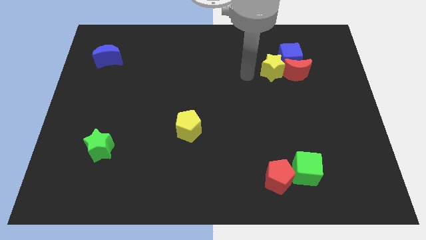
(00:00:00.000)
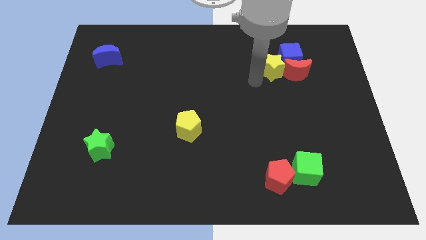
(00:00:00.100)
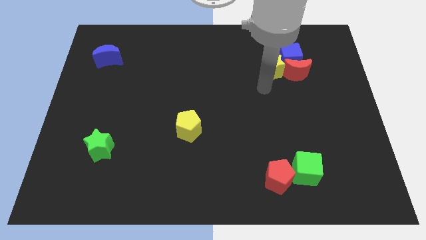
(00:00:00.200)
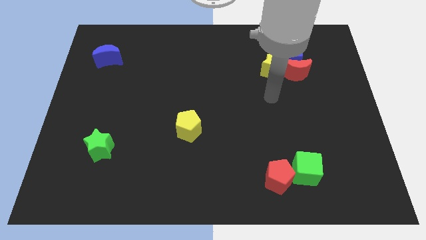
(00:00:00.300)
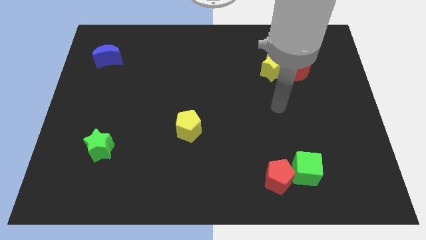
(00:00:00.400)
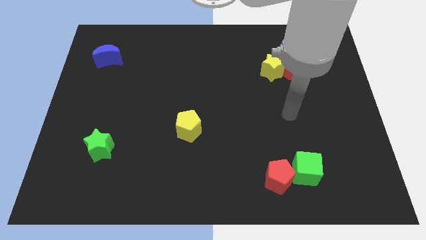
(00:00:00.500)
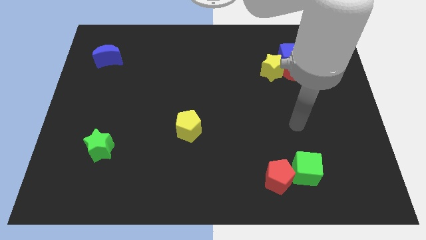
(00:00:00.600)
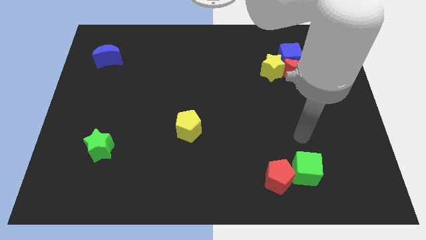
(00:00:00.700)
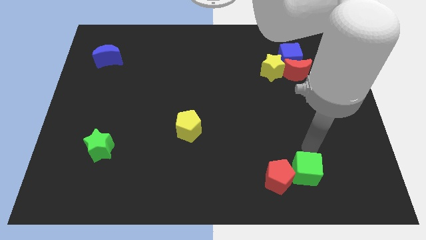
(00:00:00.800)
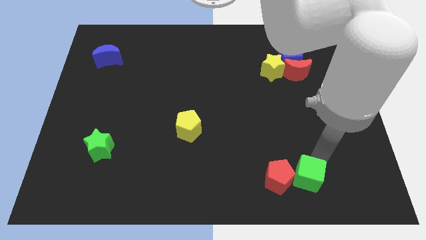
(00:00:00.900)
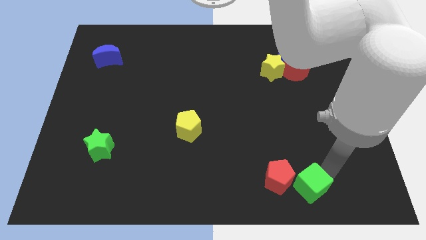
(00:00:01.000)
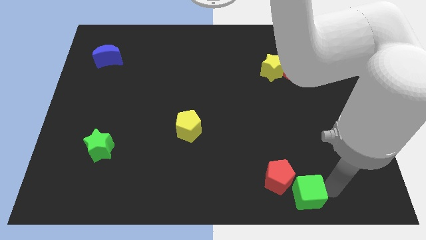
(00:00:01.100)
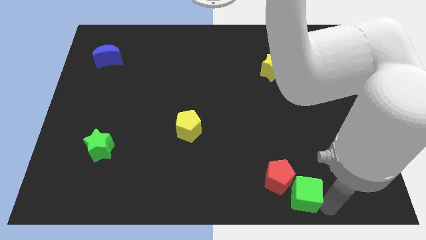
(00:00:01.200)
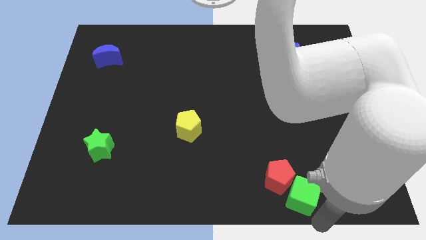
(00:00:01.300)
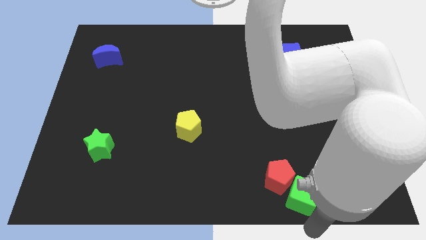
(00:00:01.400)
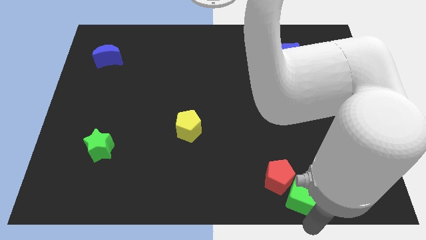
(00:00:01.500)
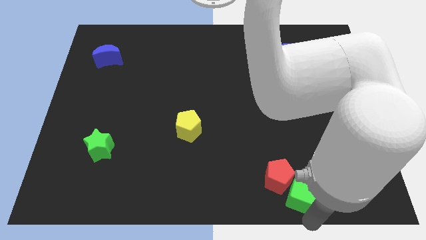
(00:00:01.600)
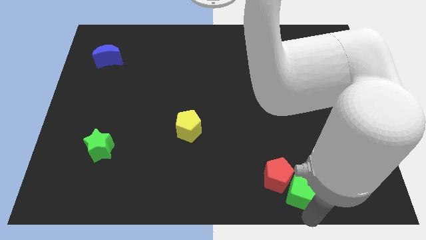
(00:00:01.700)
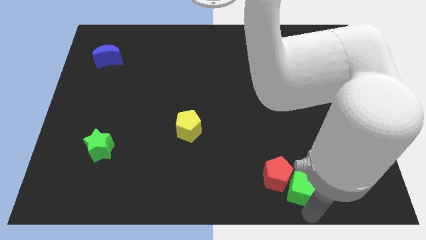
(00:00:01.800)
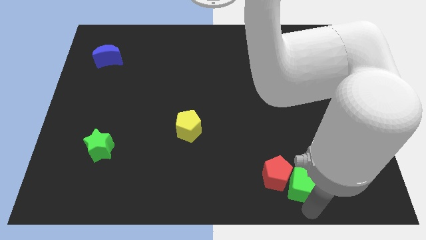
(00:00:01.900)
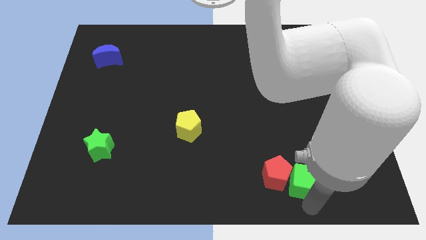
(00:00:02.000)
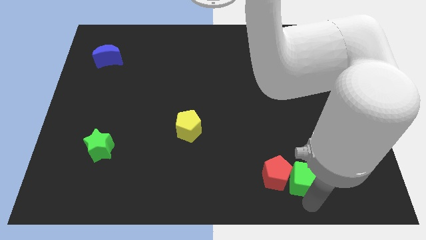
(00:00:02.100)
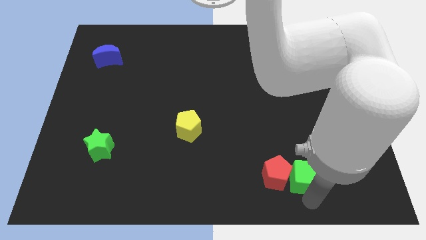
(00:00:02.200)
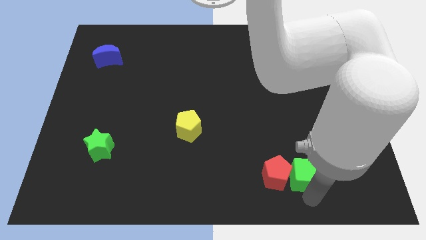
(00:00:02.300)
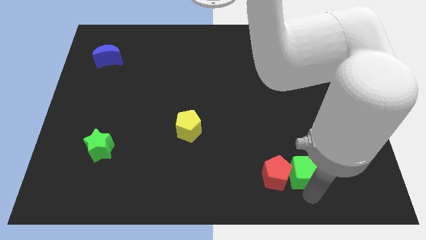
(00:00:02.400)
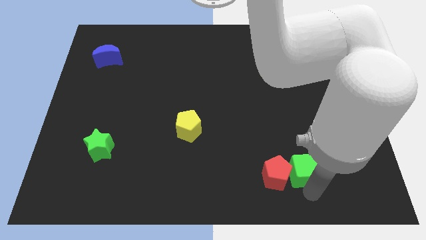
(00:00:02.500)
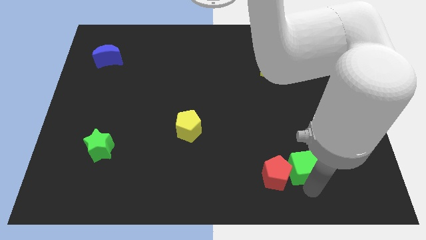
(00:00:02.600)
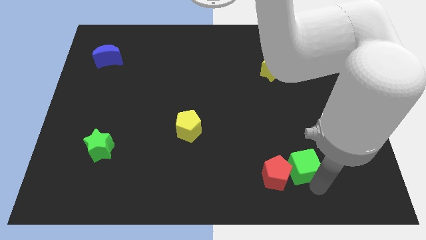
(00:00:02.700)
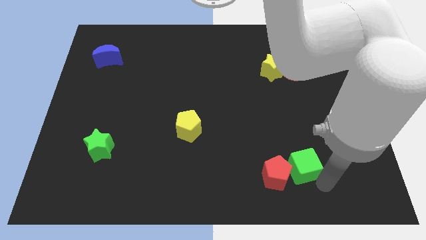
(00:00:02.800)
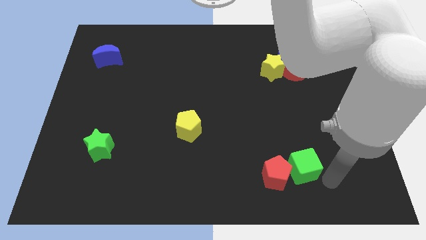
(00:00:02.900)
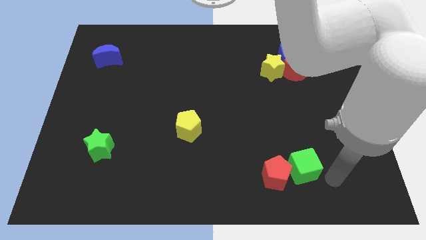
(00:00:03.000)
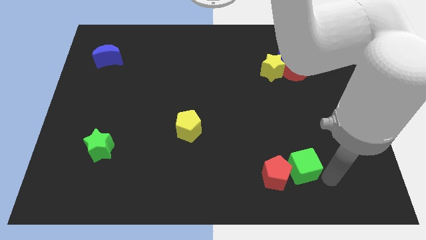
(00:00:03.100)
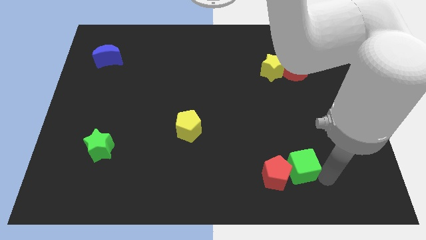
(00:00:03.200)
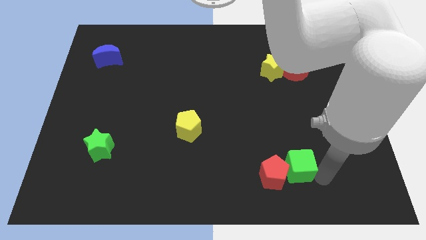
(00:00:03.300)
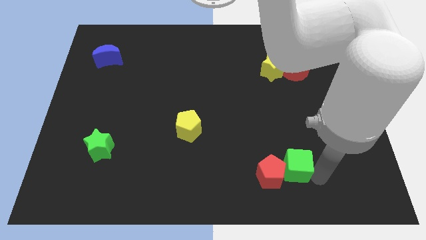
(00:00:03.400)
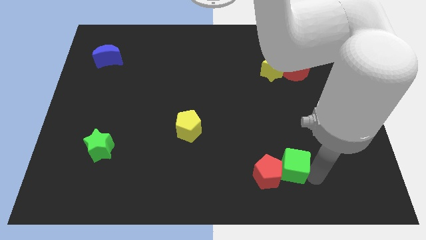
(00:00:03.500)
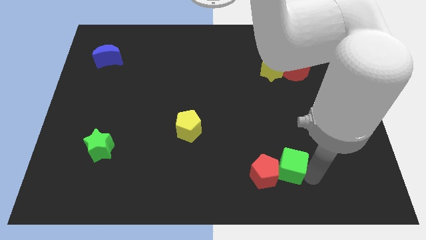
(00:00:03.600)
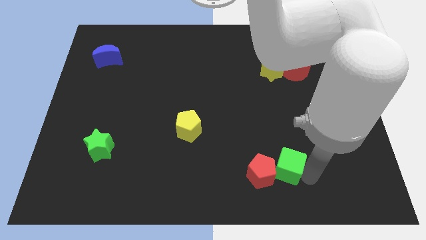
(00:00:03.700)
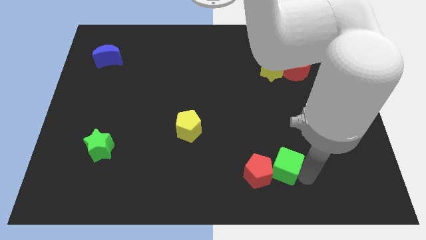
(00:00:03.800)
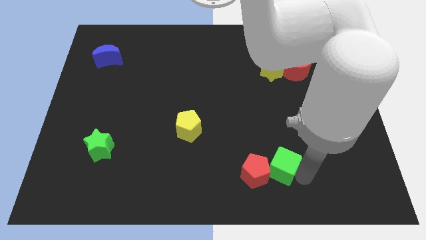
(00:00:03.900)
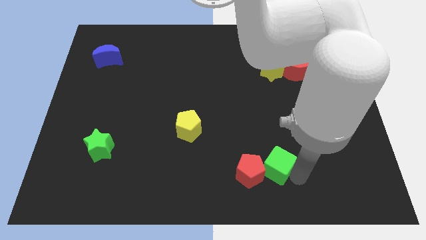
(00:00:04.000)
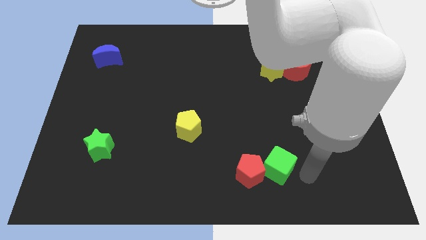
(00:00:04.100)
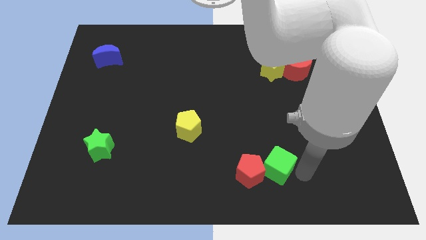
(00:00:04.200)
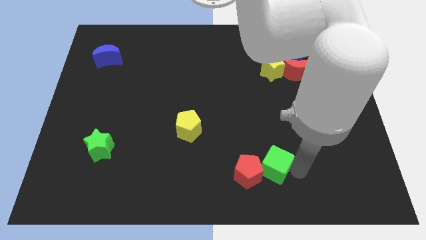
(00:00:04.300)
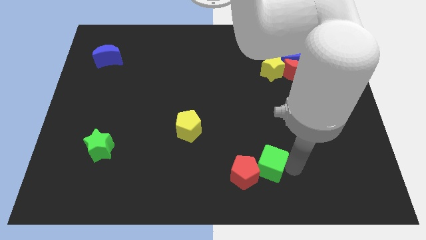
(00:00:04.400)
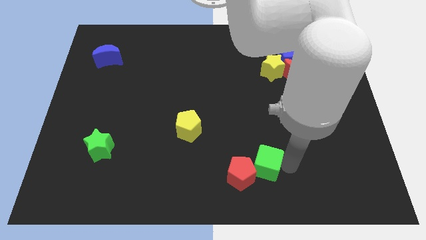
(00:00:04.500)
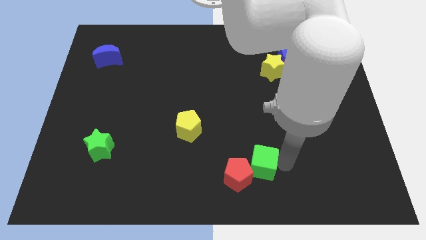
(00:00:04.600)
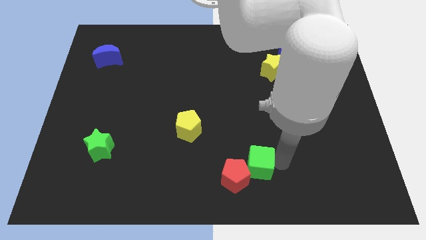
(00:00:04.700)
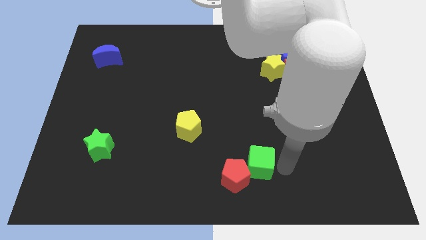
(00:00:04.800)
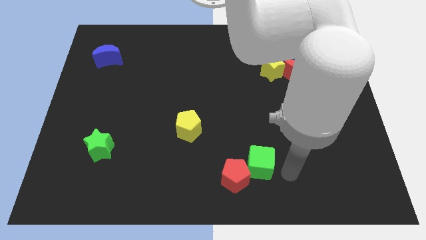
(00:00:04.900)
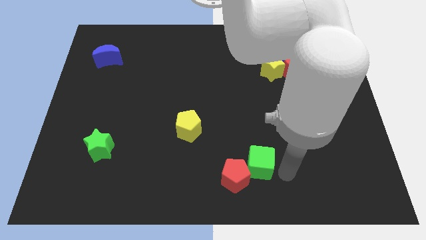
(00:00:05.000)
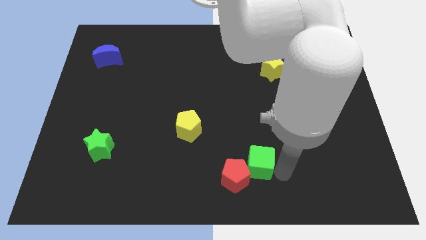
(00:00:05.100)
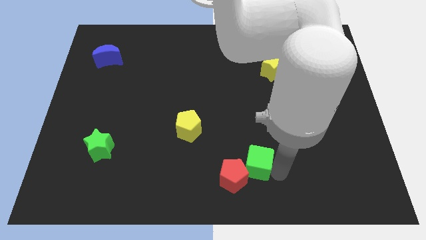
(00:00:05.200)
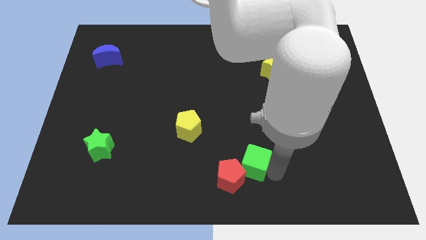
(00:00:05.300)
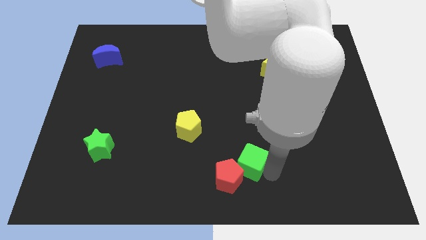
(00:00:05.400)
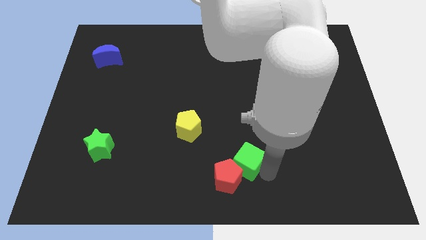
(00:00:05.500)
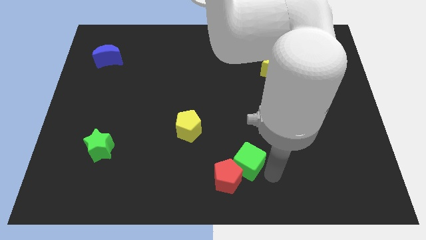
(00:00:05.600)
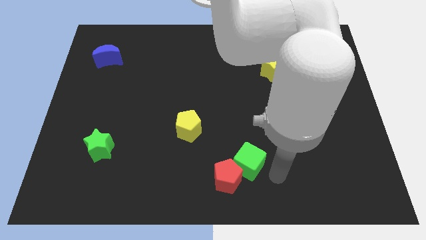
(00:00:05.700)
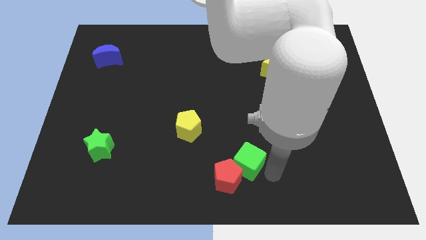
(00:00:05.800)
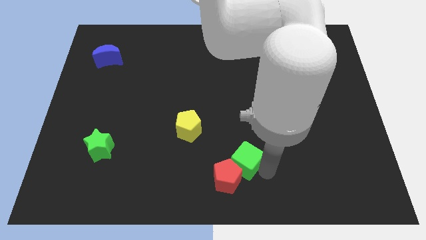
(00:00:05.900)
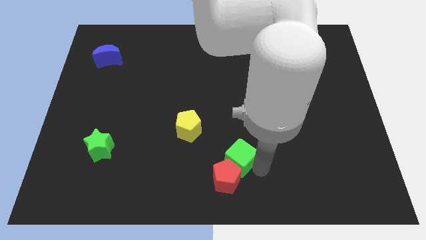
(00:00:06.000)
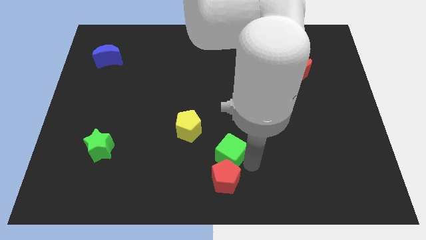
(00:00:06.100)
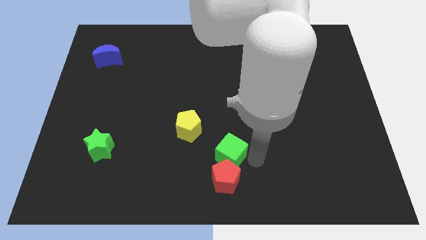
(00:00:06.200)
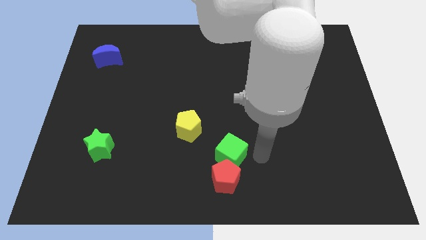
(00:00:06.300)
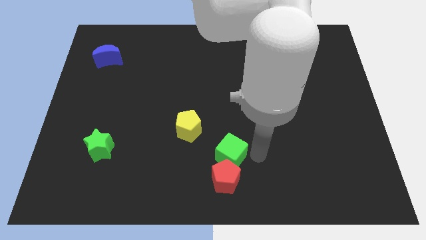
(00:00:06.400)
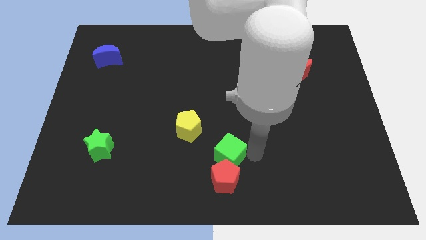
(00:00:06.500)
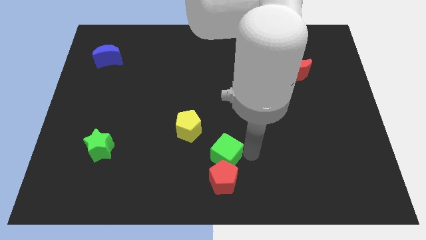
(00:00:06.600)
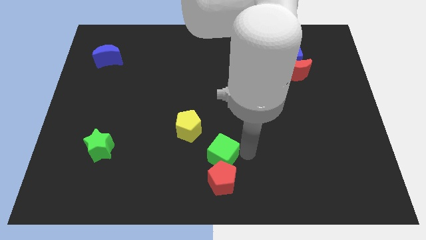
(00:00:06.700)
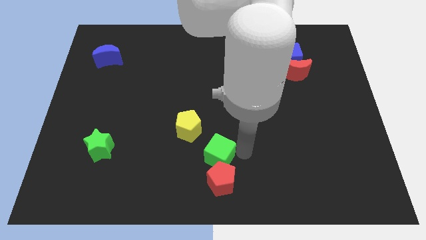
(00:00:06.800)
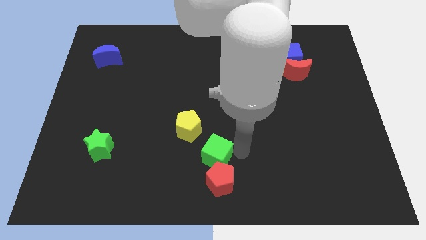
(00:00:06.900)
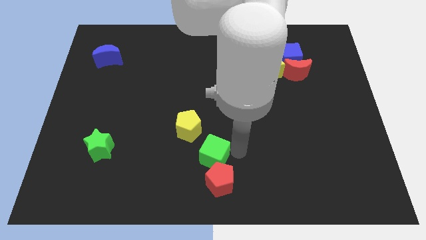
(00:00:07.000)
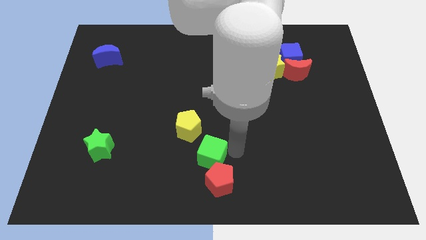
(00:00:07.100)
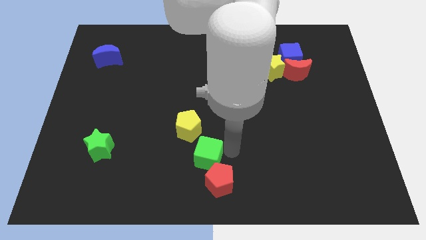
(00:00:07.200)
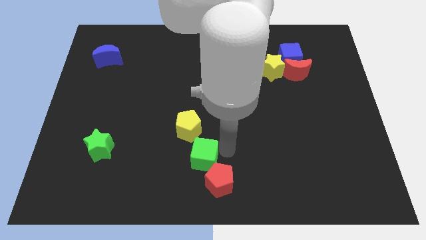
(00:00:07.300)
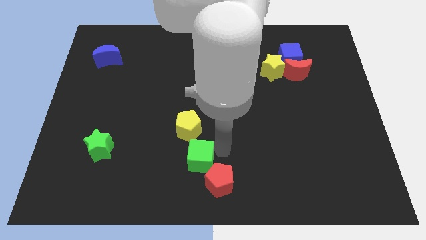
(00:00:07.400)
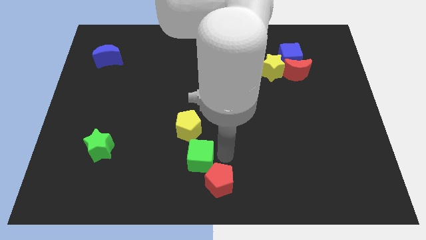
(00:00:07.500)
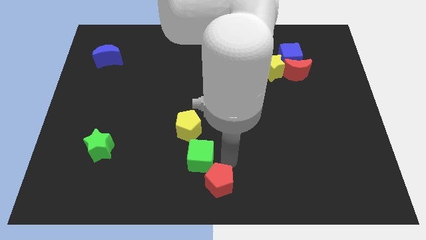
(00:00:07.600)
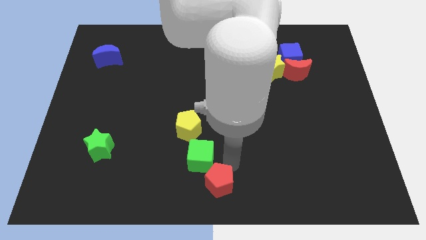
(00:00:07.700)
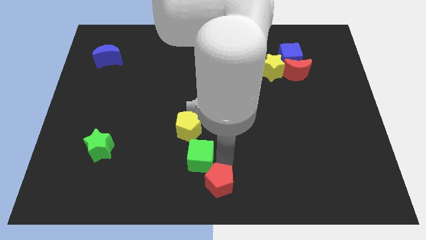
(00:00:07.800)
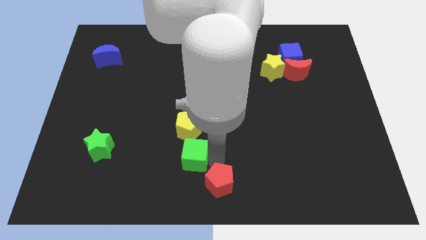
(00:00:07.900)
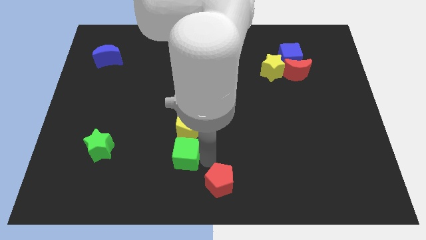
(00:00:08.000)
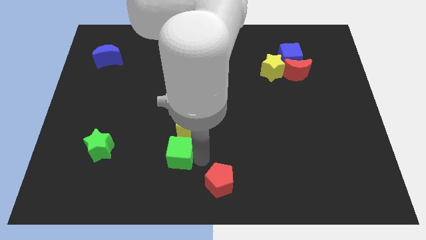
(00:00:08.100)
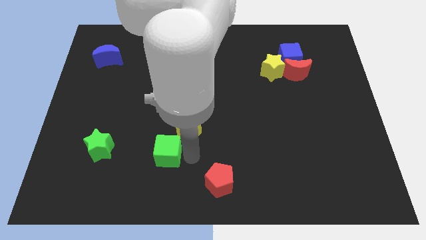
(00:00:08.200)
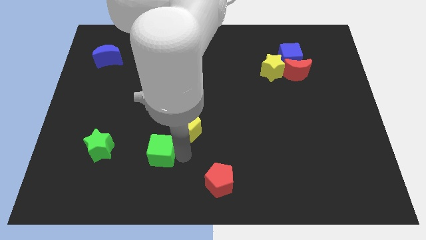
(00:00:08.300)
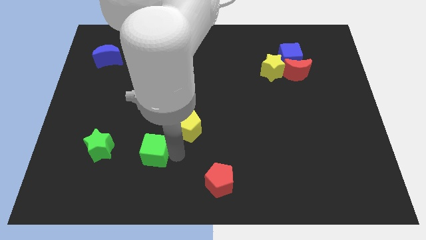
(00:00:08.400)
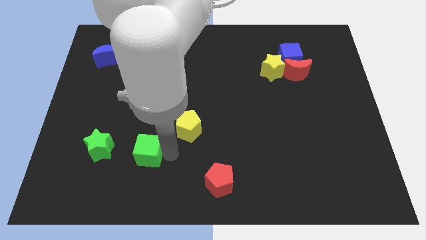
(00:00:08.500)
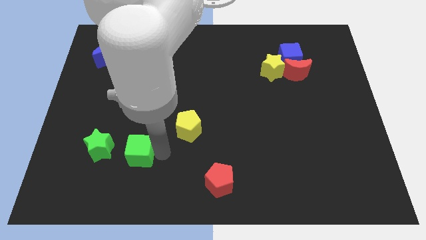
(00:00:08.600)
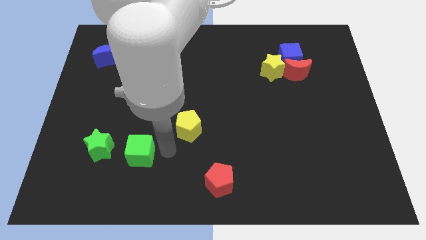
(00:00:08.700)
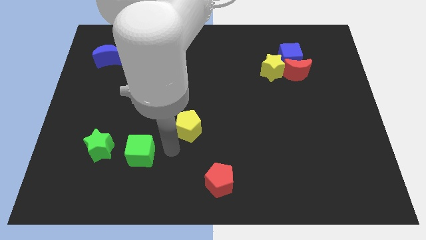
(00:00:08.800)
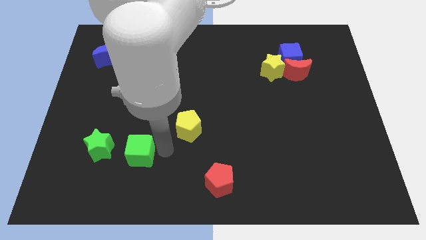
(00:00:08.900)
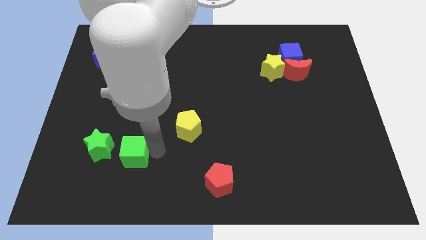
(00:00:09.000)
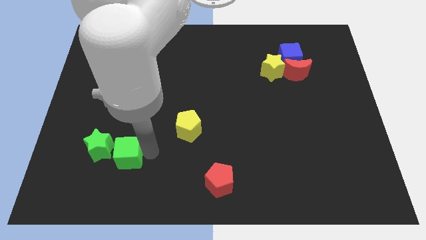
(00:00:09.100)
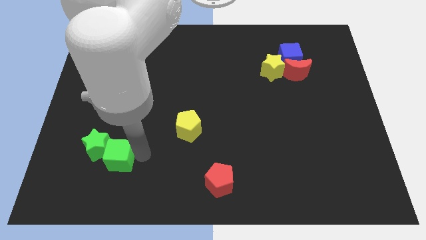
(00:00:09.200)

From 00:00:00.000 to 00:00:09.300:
move the green cube close to the green star
